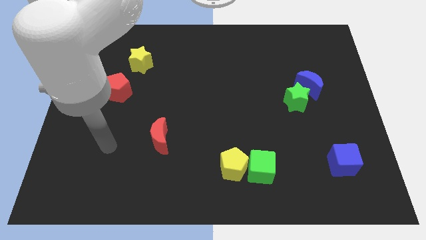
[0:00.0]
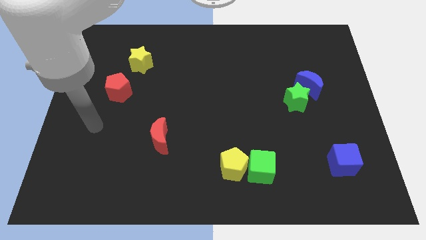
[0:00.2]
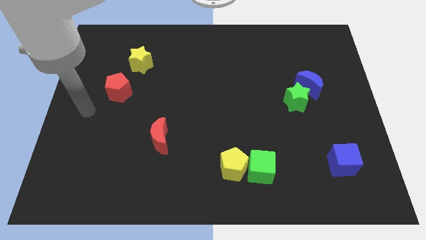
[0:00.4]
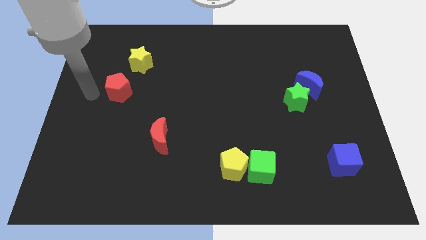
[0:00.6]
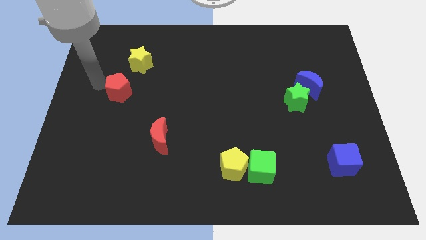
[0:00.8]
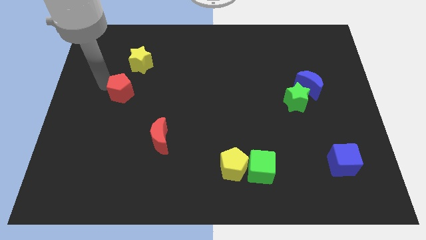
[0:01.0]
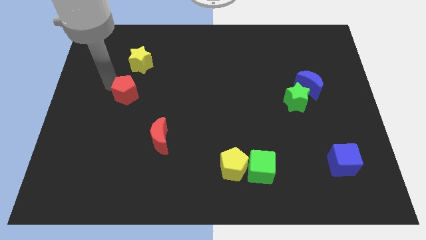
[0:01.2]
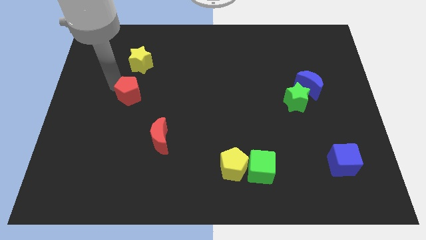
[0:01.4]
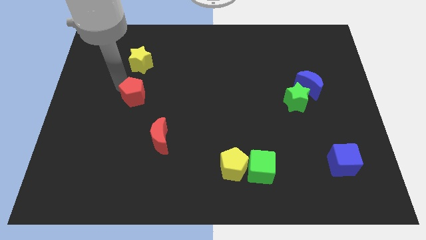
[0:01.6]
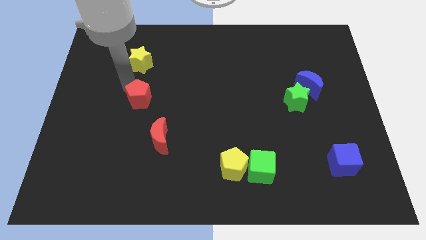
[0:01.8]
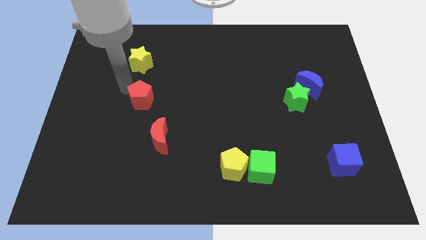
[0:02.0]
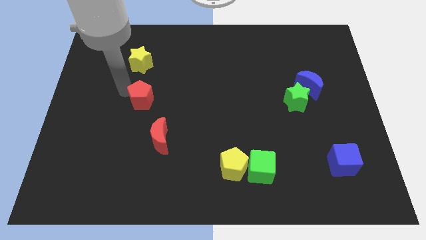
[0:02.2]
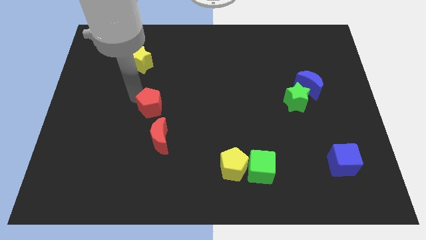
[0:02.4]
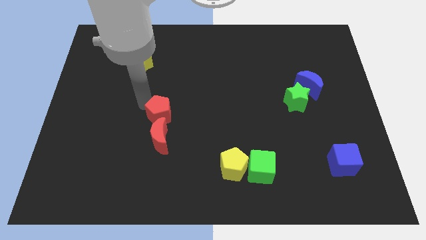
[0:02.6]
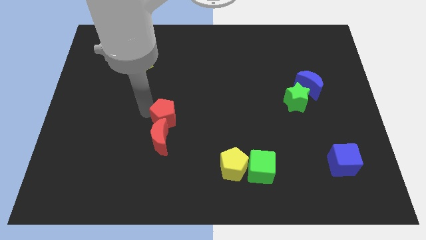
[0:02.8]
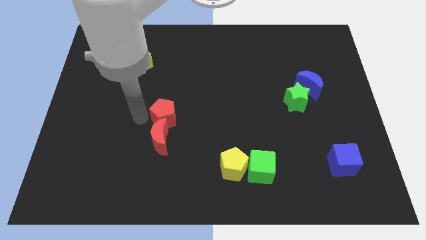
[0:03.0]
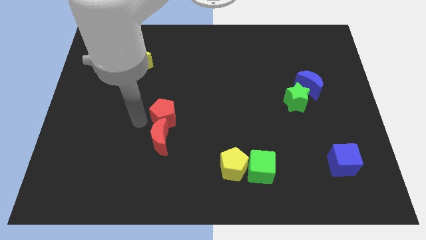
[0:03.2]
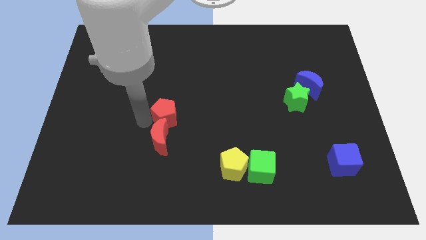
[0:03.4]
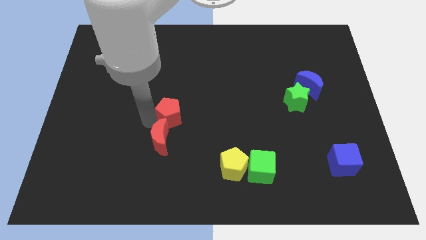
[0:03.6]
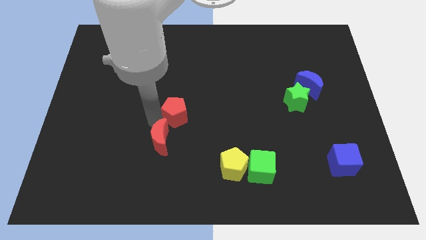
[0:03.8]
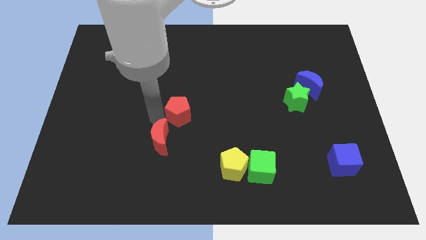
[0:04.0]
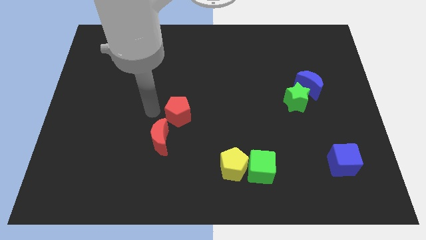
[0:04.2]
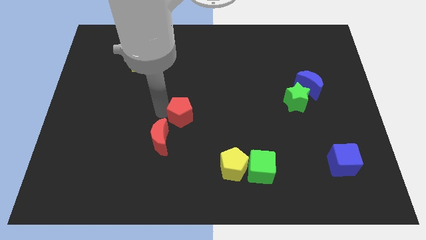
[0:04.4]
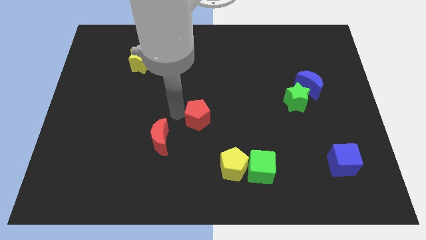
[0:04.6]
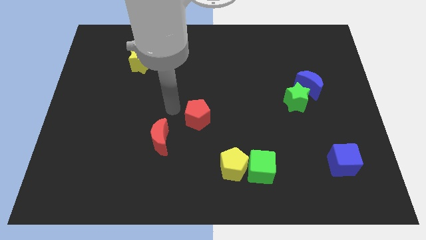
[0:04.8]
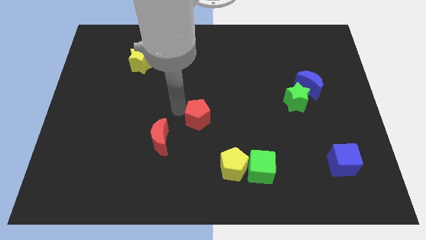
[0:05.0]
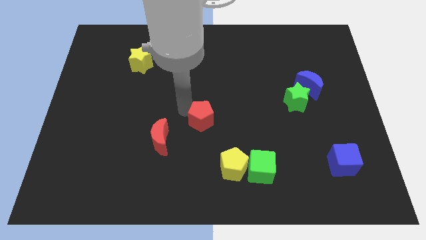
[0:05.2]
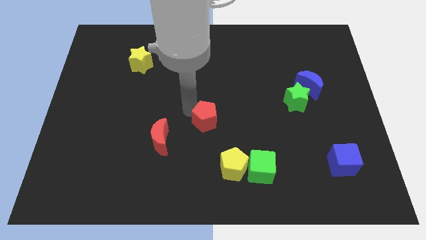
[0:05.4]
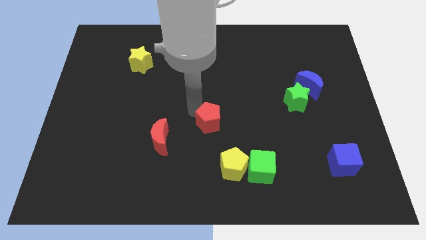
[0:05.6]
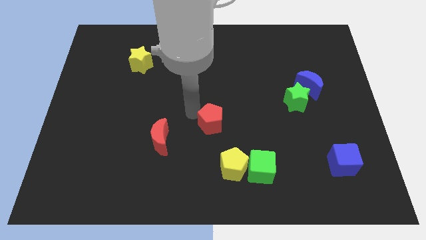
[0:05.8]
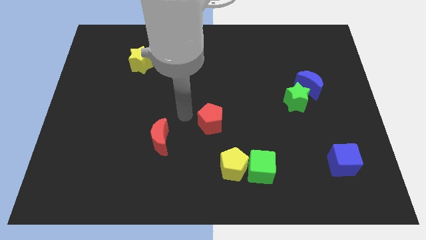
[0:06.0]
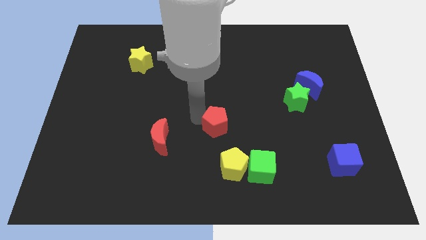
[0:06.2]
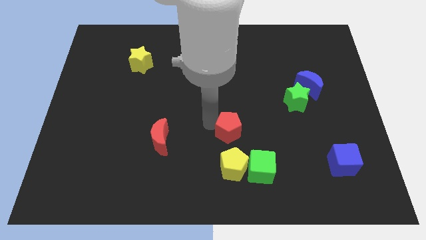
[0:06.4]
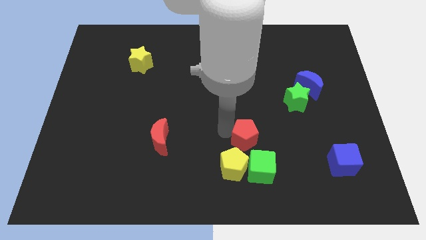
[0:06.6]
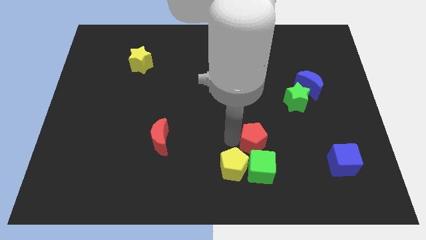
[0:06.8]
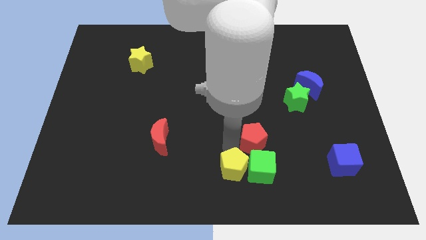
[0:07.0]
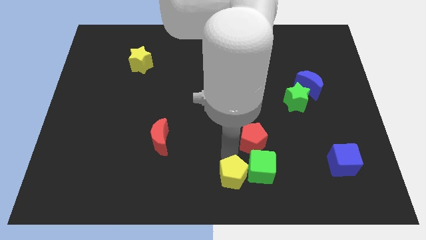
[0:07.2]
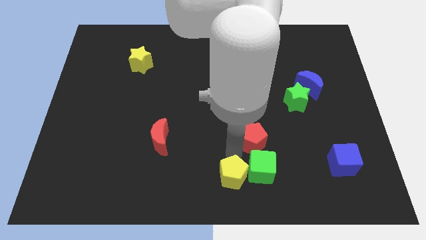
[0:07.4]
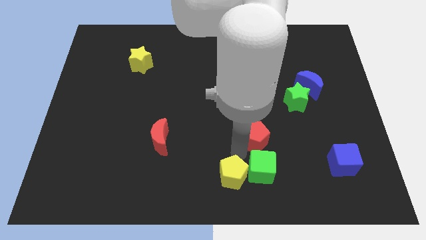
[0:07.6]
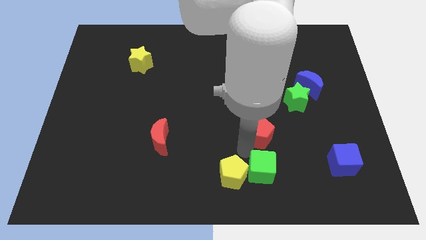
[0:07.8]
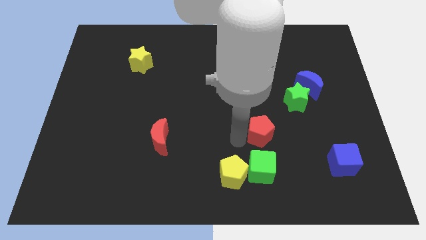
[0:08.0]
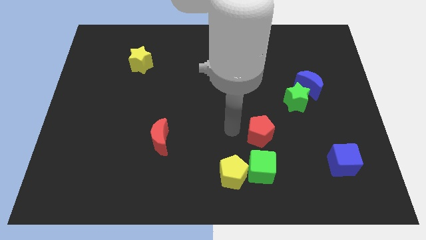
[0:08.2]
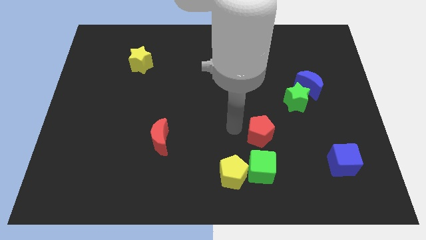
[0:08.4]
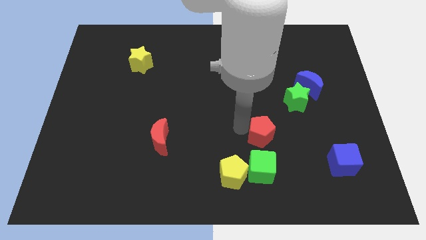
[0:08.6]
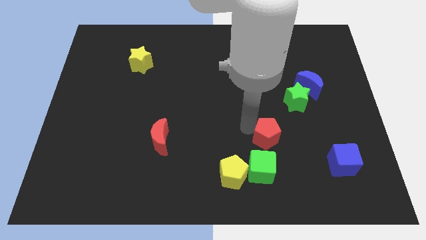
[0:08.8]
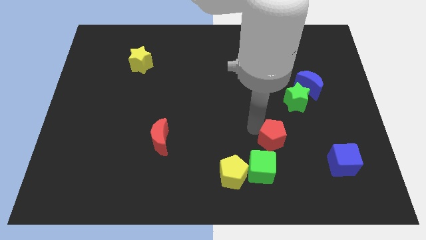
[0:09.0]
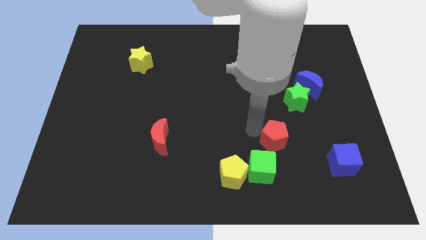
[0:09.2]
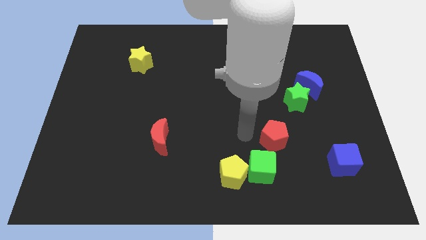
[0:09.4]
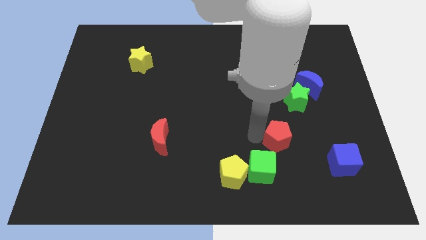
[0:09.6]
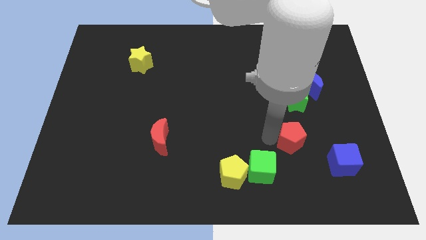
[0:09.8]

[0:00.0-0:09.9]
push the red pentagon to the top left side of the blue cube

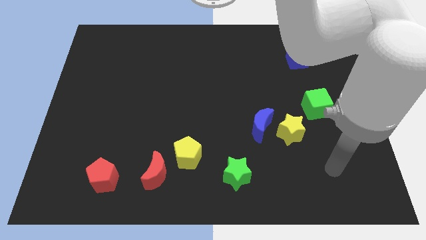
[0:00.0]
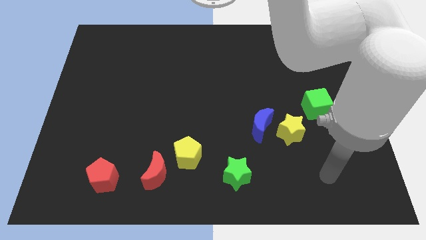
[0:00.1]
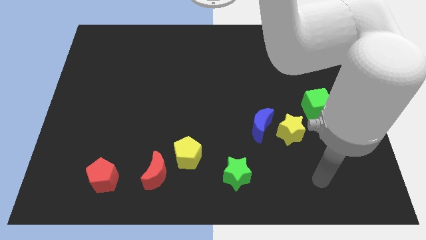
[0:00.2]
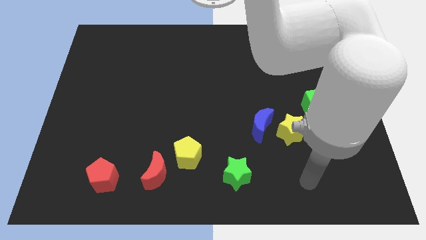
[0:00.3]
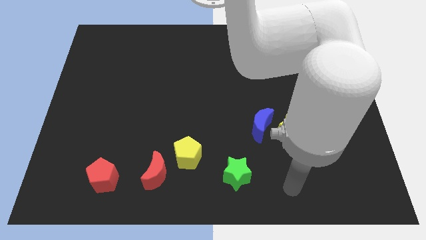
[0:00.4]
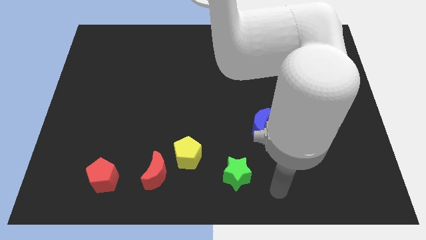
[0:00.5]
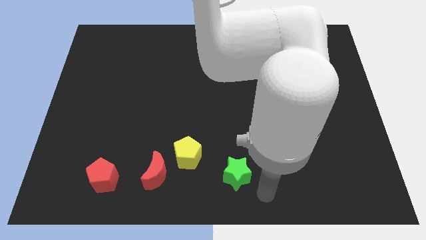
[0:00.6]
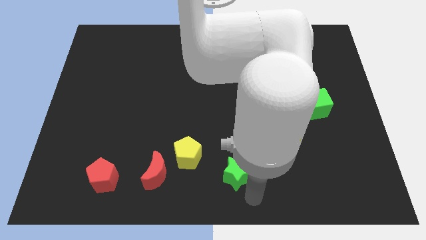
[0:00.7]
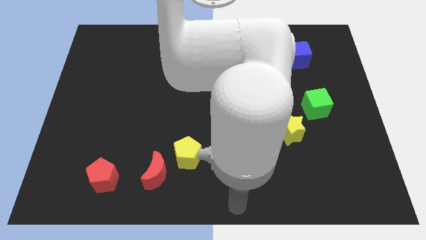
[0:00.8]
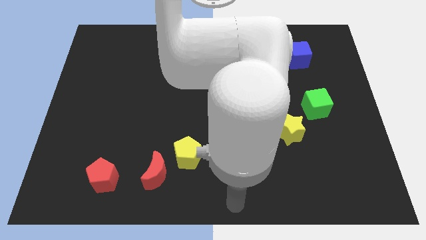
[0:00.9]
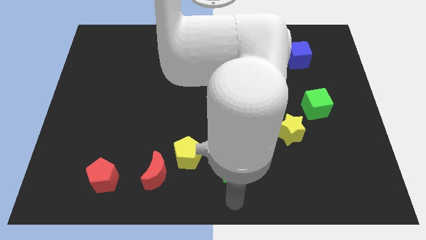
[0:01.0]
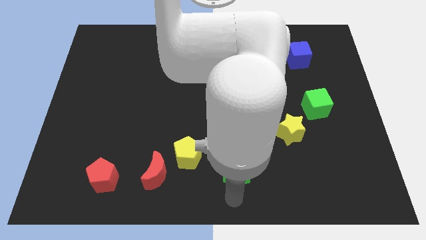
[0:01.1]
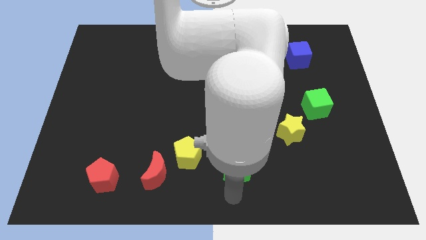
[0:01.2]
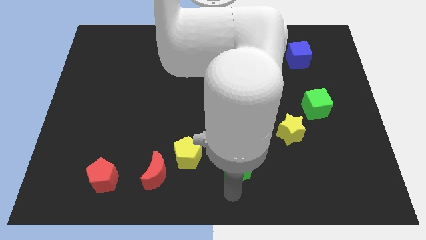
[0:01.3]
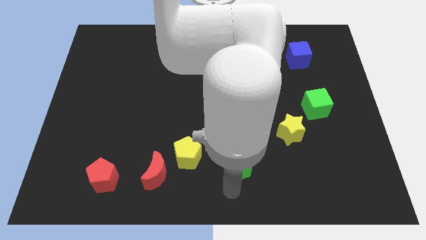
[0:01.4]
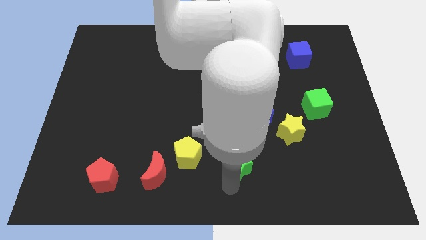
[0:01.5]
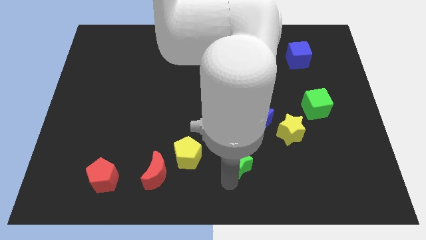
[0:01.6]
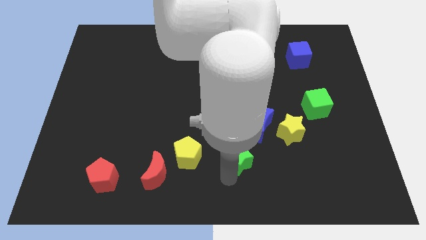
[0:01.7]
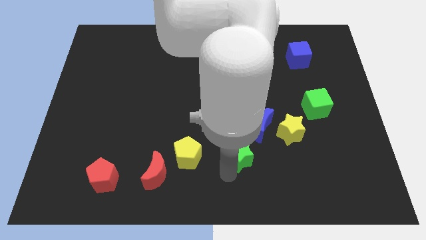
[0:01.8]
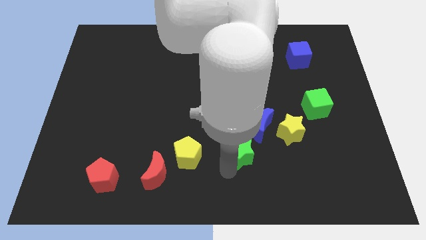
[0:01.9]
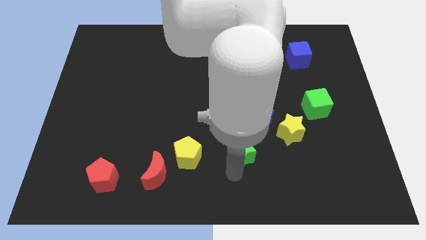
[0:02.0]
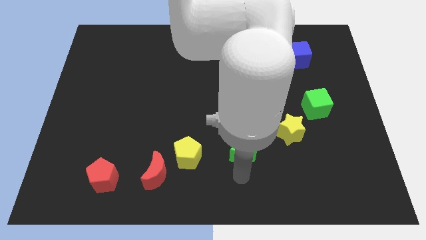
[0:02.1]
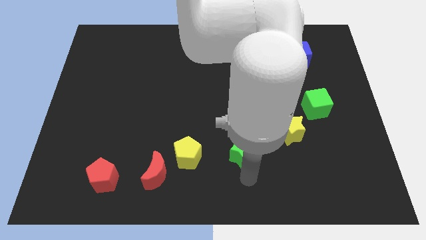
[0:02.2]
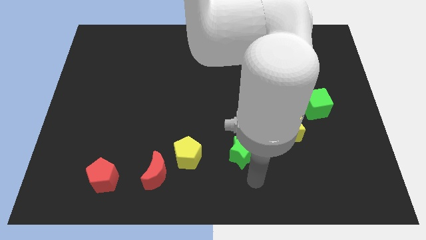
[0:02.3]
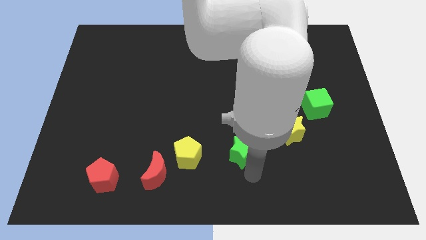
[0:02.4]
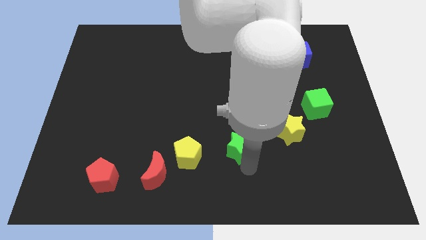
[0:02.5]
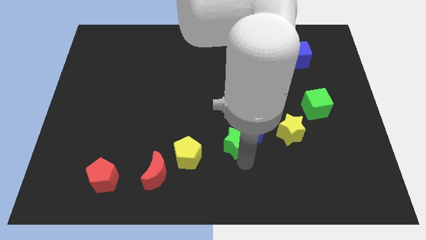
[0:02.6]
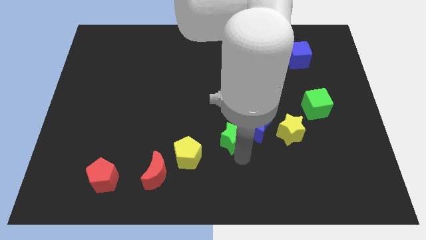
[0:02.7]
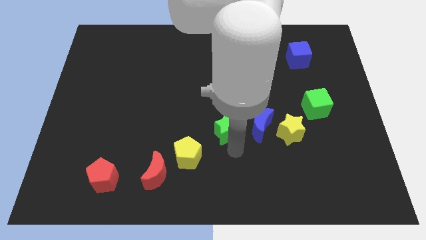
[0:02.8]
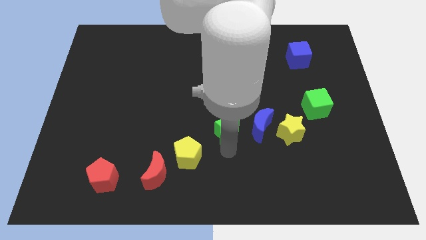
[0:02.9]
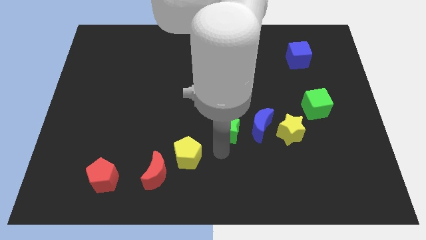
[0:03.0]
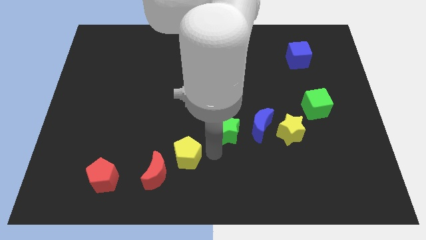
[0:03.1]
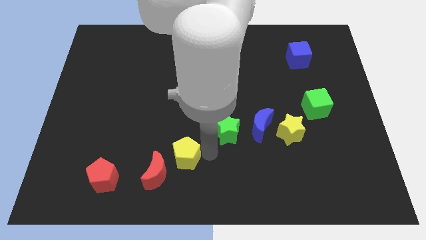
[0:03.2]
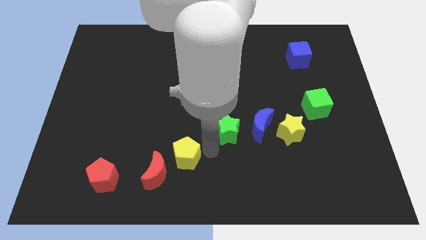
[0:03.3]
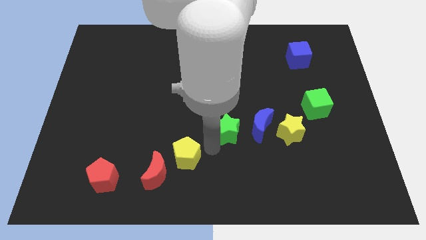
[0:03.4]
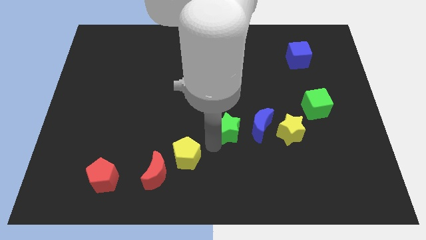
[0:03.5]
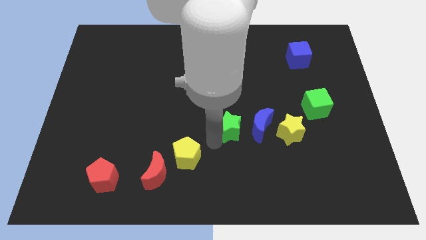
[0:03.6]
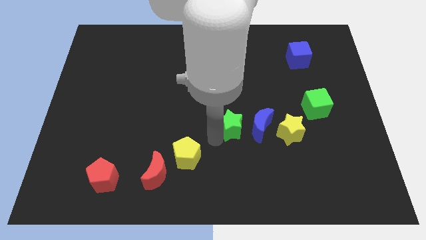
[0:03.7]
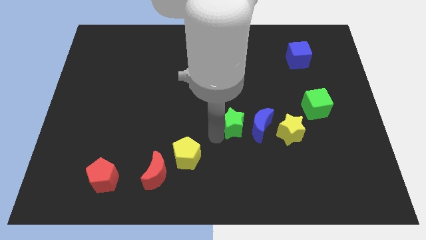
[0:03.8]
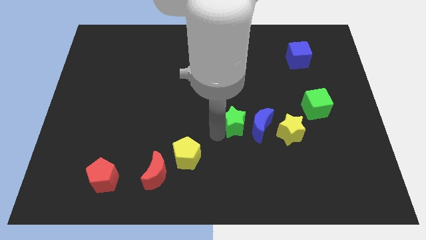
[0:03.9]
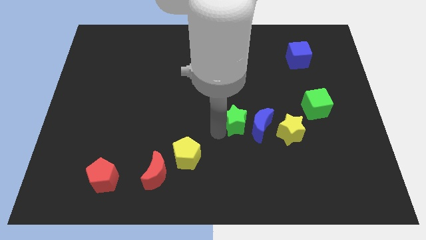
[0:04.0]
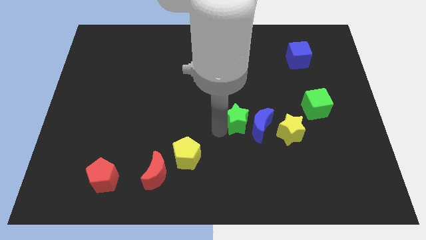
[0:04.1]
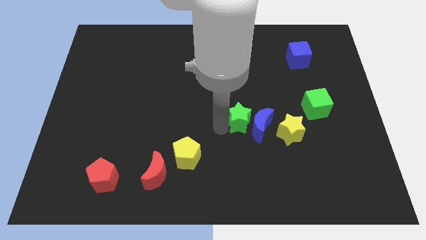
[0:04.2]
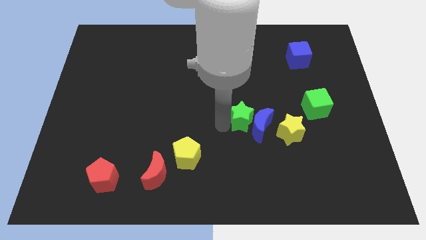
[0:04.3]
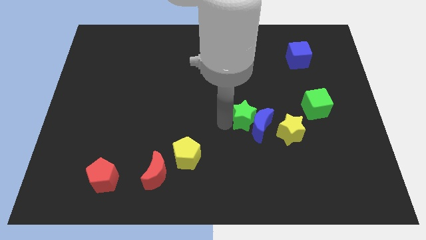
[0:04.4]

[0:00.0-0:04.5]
slide the green star to the top side of the blue moon
